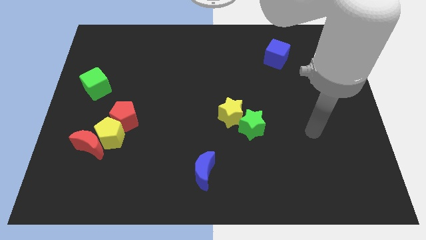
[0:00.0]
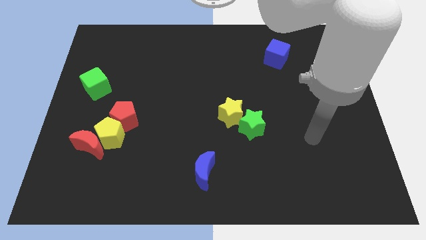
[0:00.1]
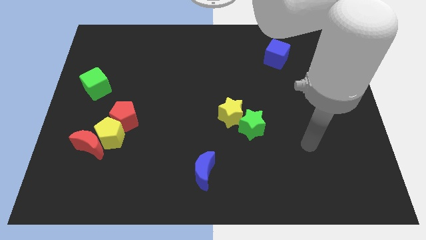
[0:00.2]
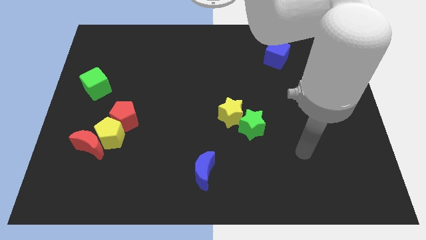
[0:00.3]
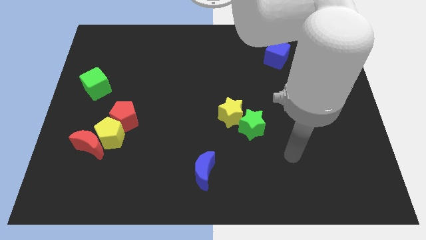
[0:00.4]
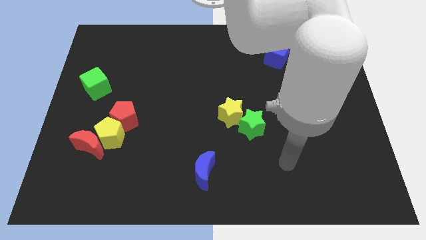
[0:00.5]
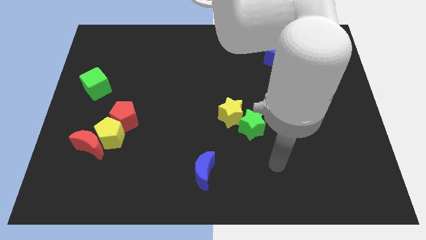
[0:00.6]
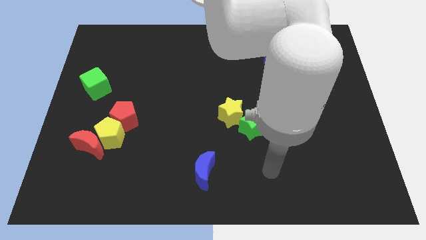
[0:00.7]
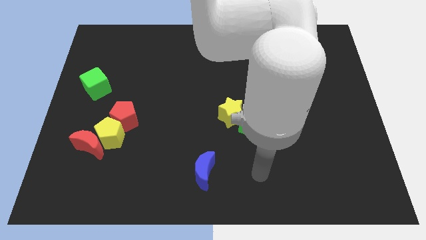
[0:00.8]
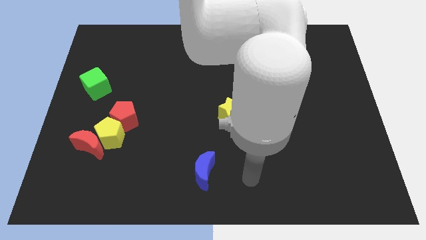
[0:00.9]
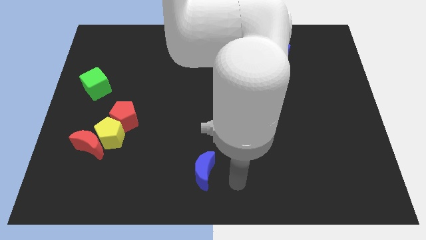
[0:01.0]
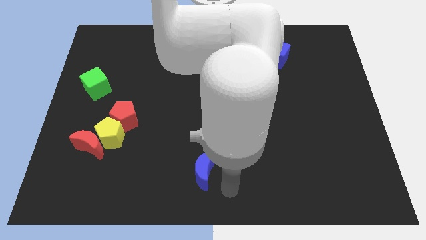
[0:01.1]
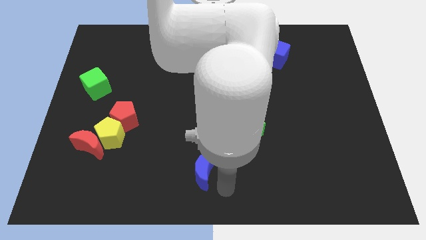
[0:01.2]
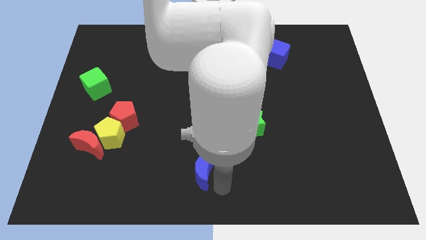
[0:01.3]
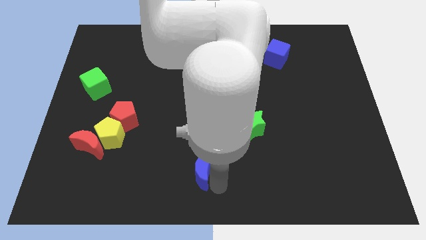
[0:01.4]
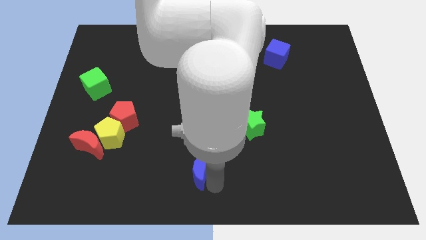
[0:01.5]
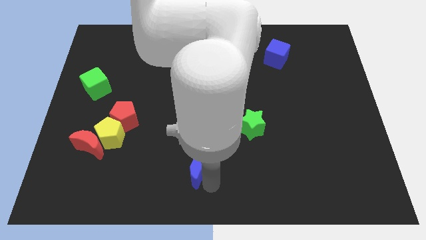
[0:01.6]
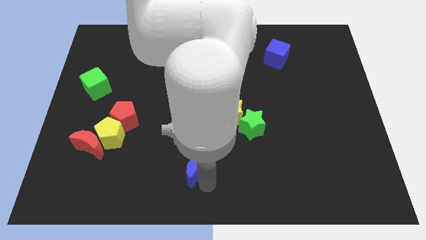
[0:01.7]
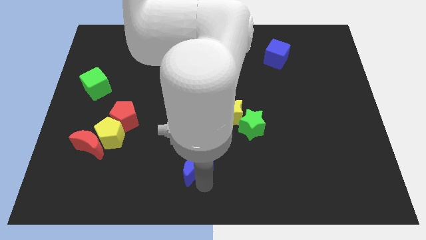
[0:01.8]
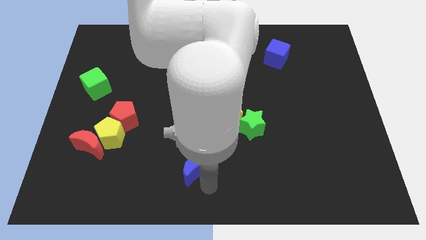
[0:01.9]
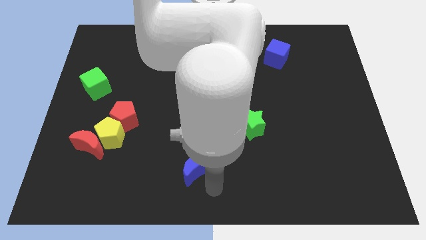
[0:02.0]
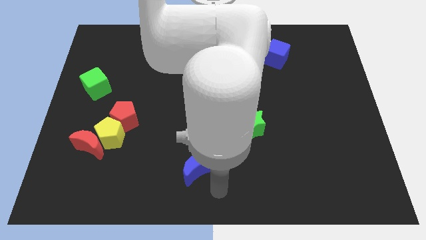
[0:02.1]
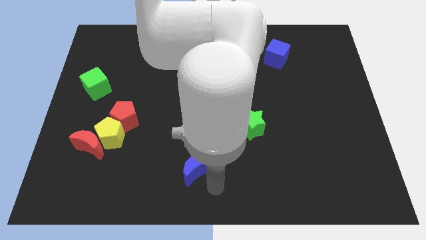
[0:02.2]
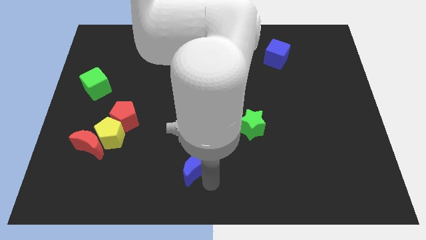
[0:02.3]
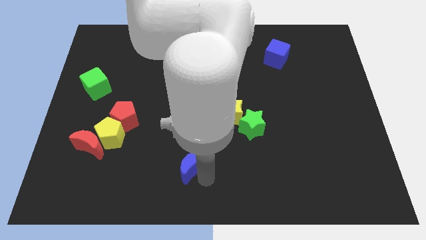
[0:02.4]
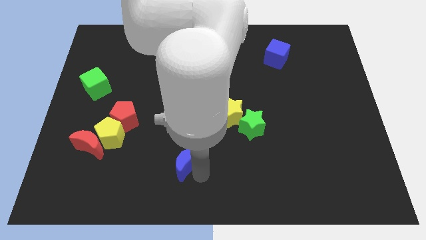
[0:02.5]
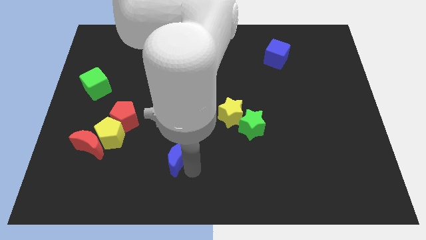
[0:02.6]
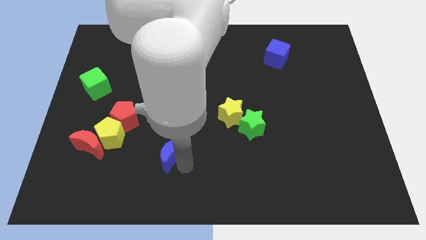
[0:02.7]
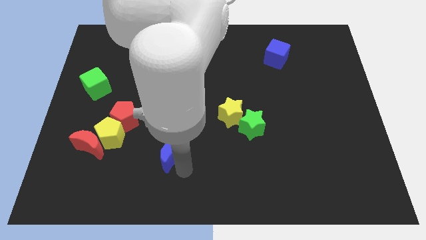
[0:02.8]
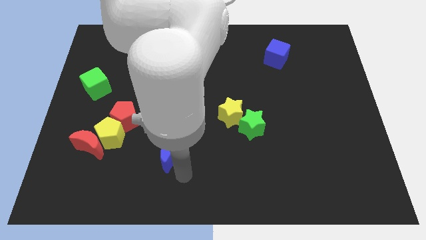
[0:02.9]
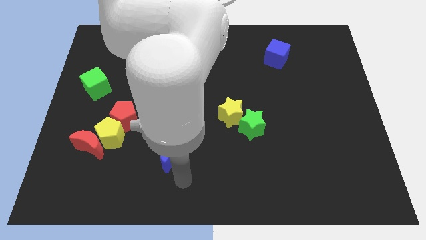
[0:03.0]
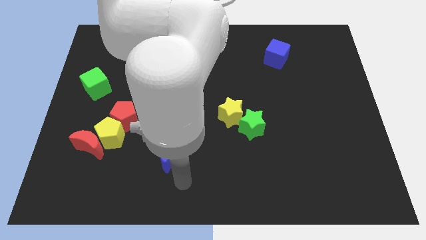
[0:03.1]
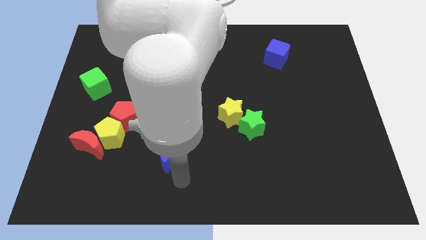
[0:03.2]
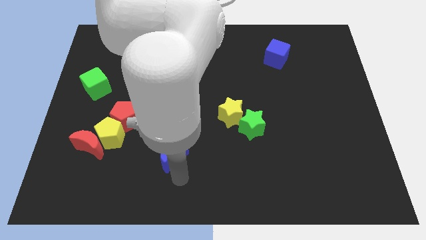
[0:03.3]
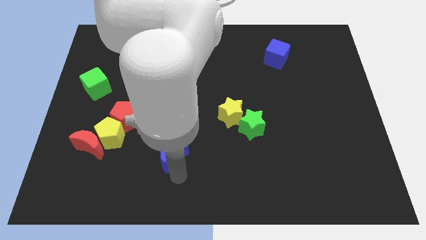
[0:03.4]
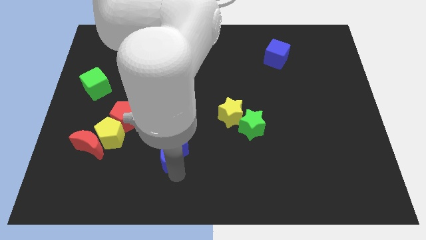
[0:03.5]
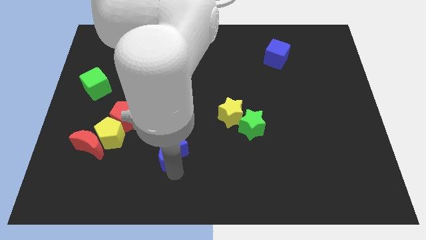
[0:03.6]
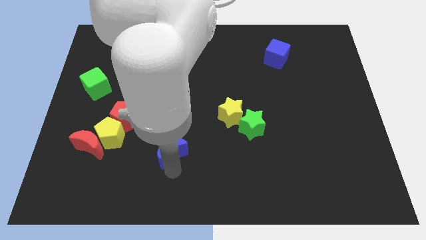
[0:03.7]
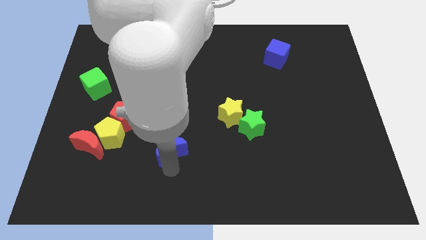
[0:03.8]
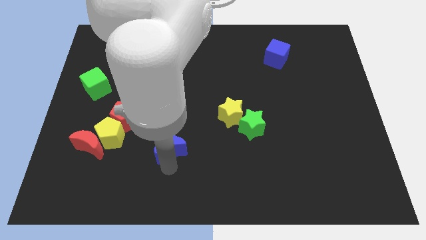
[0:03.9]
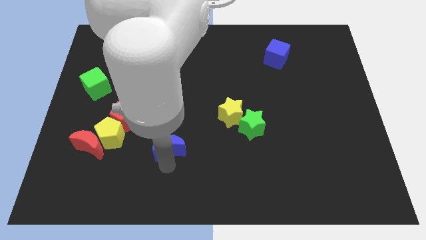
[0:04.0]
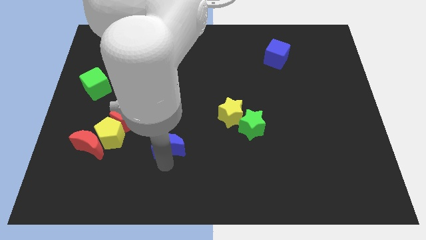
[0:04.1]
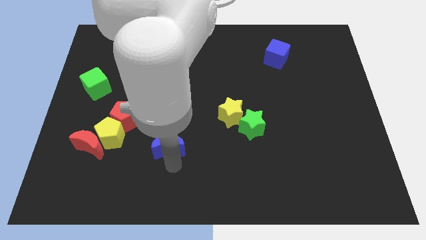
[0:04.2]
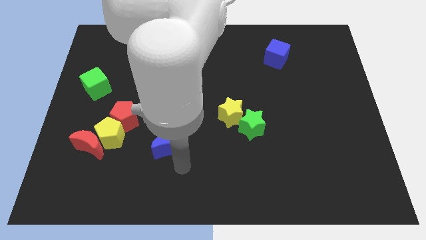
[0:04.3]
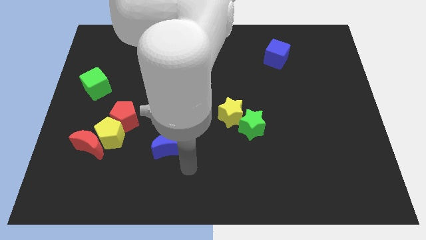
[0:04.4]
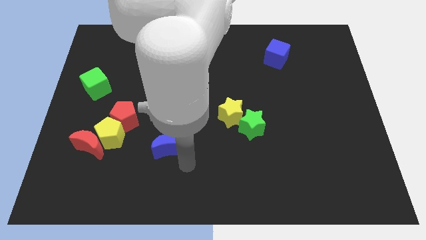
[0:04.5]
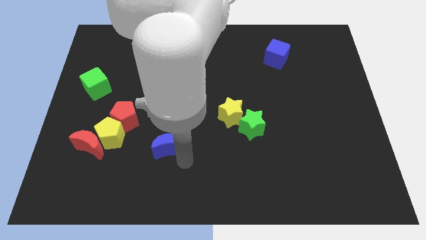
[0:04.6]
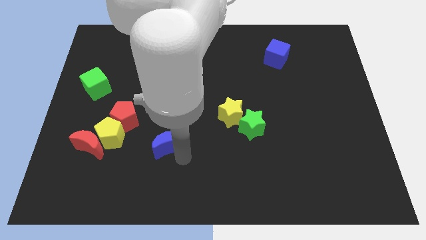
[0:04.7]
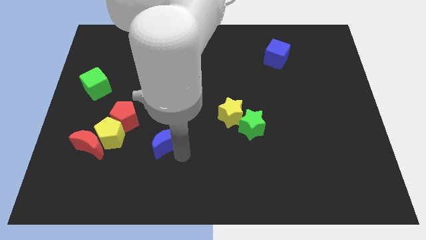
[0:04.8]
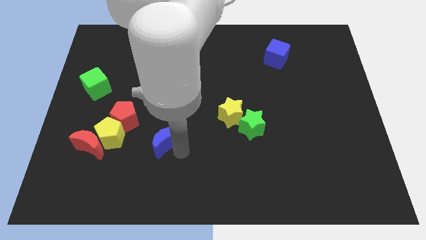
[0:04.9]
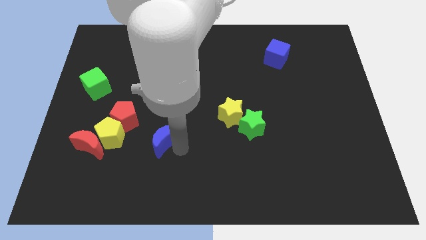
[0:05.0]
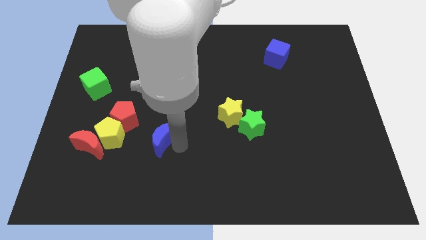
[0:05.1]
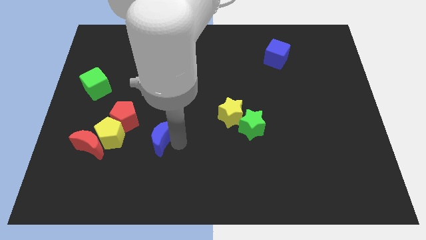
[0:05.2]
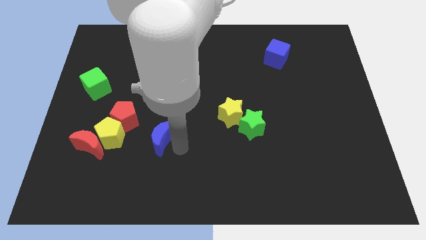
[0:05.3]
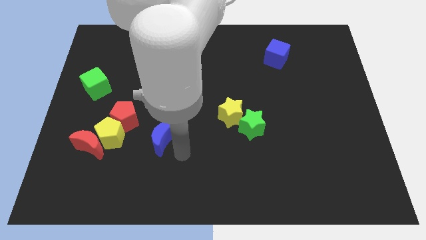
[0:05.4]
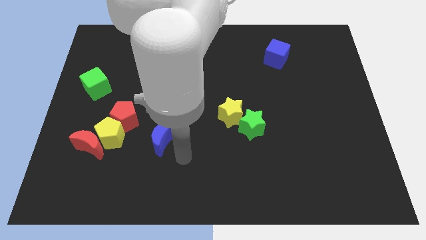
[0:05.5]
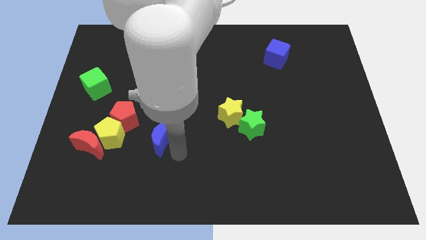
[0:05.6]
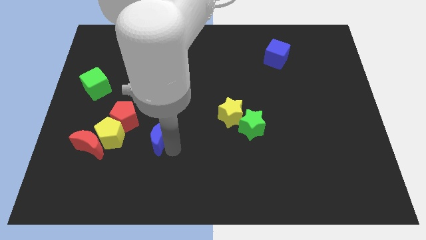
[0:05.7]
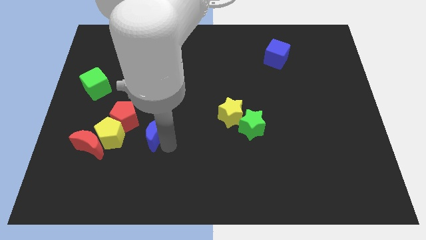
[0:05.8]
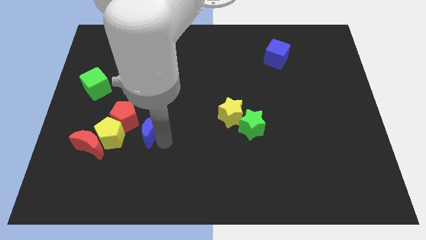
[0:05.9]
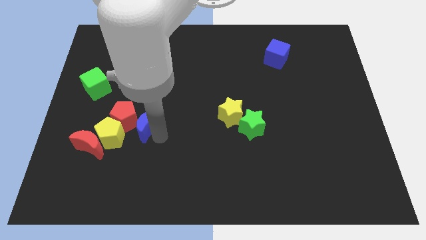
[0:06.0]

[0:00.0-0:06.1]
push the blue moon next to the red pentagon

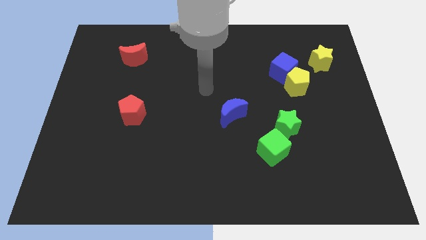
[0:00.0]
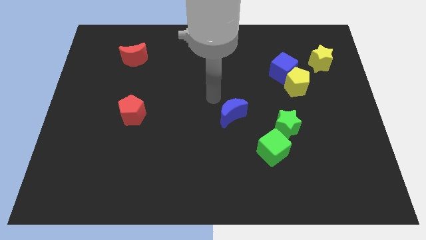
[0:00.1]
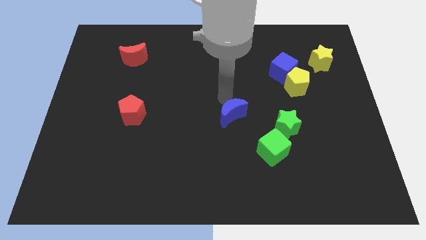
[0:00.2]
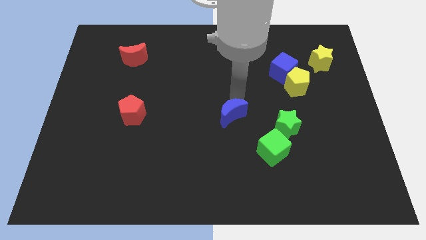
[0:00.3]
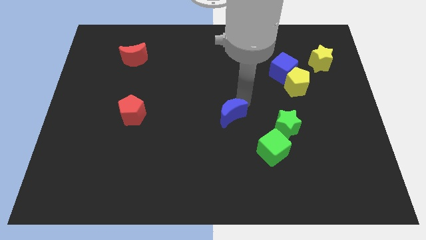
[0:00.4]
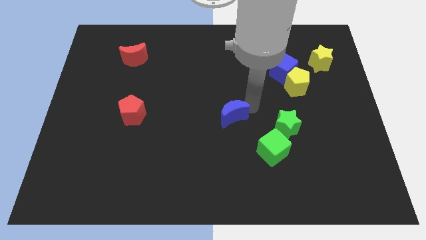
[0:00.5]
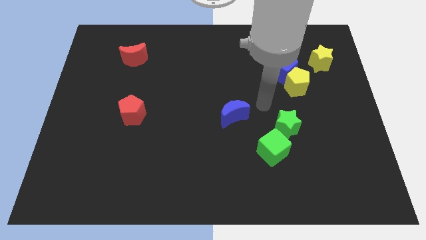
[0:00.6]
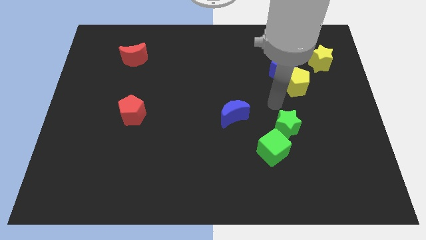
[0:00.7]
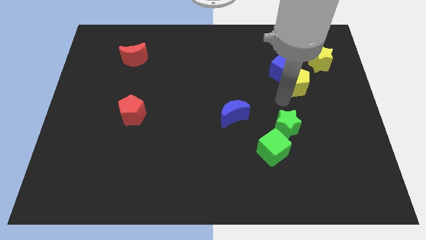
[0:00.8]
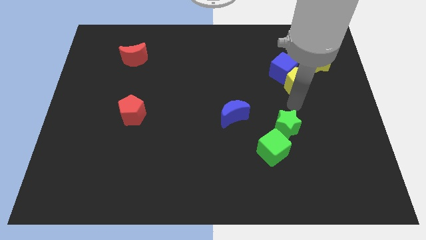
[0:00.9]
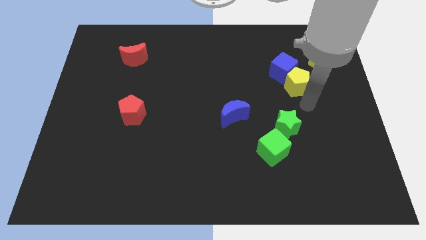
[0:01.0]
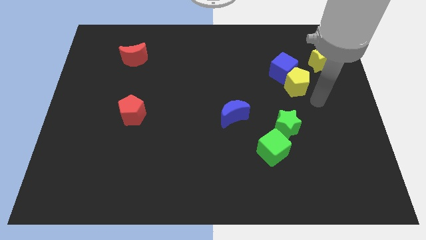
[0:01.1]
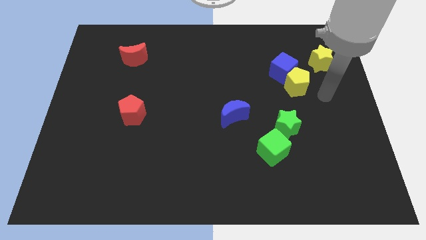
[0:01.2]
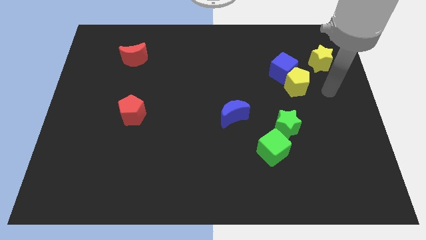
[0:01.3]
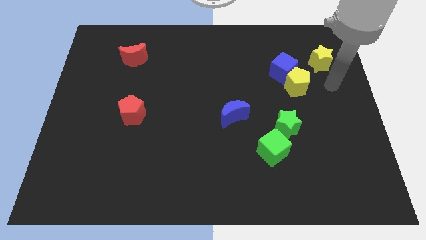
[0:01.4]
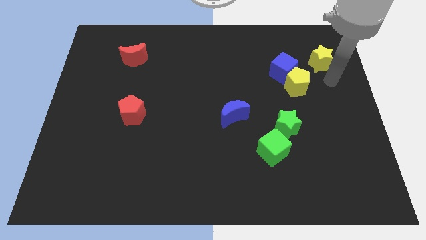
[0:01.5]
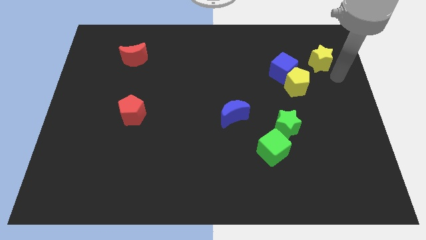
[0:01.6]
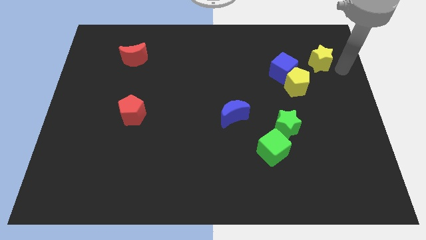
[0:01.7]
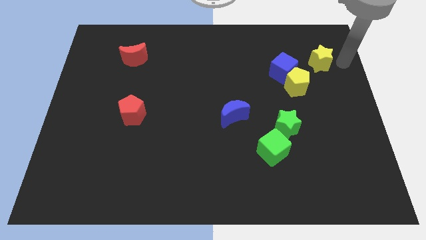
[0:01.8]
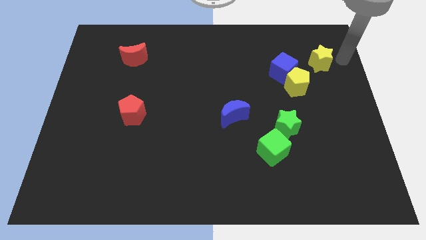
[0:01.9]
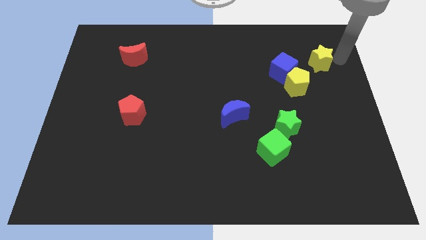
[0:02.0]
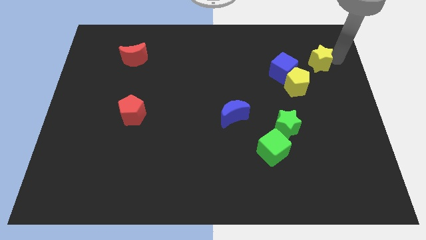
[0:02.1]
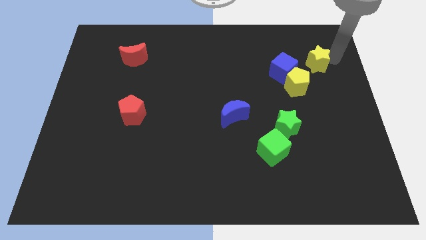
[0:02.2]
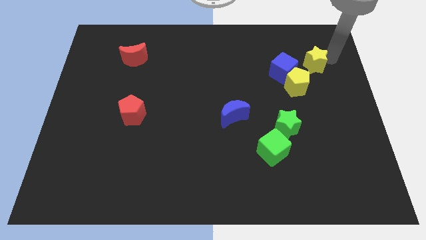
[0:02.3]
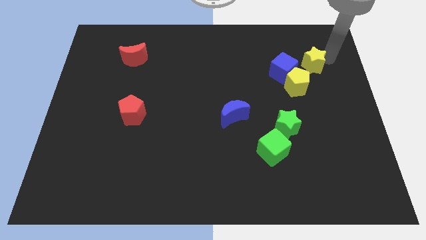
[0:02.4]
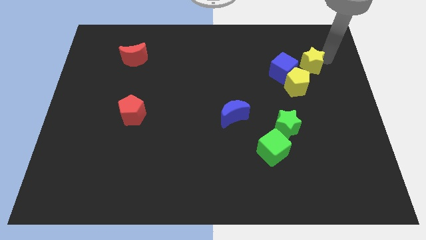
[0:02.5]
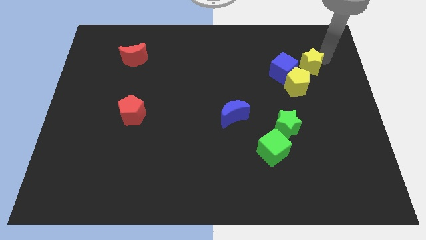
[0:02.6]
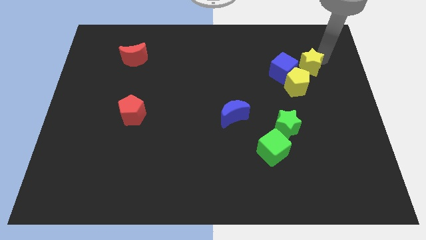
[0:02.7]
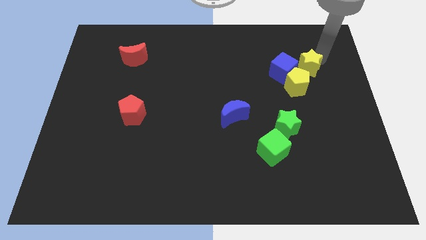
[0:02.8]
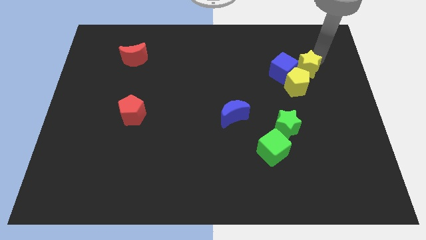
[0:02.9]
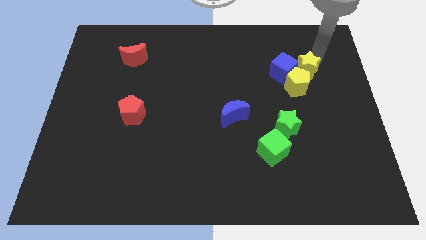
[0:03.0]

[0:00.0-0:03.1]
put the yellow star close to the blue cube
